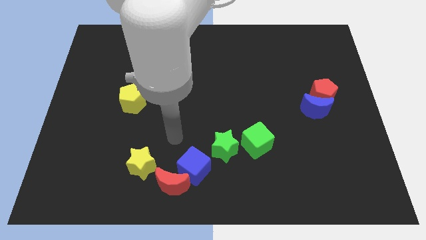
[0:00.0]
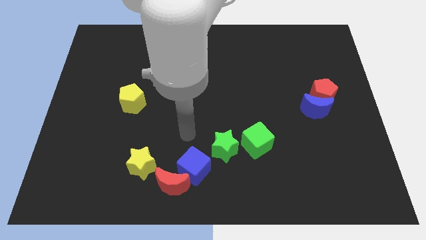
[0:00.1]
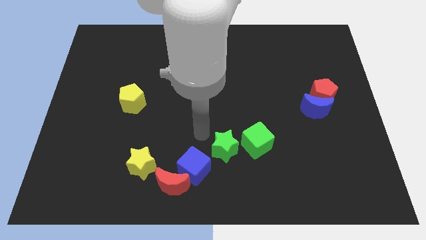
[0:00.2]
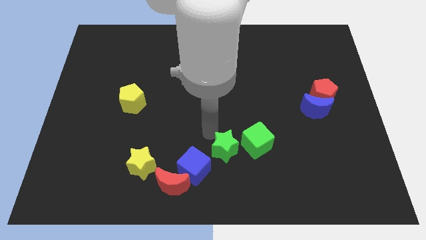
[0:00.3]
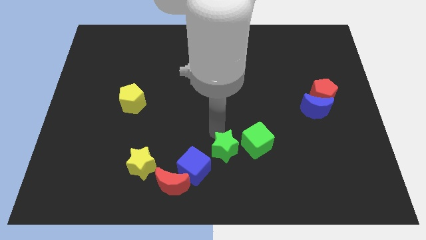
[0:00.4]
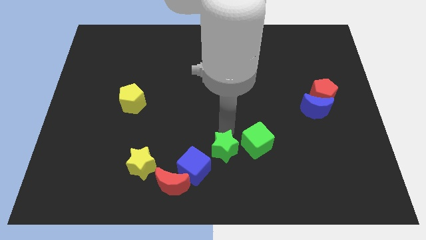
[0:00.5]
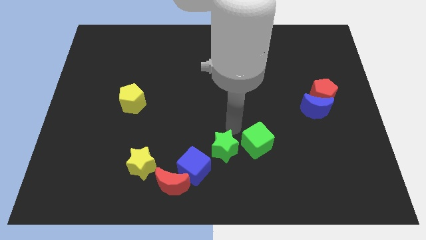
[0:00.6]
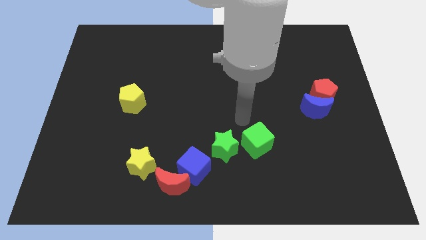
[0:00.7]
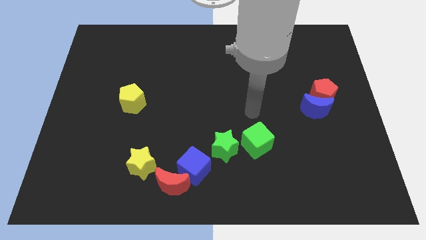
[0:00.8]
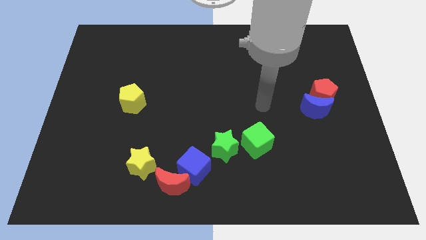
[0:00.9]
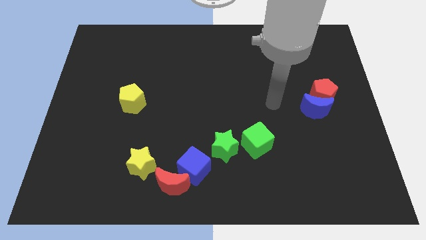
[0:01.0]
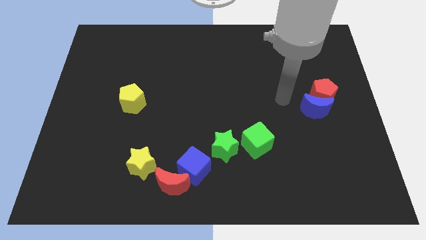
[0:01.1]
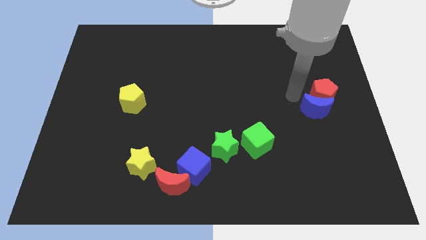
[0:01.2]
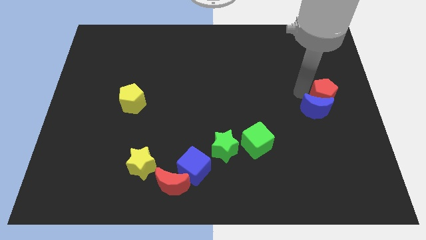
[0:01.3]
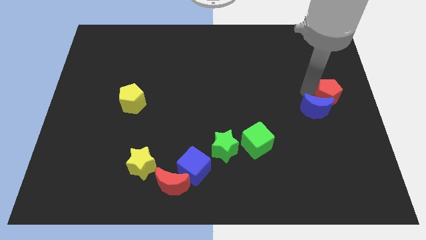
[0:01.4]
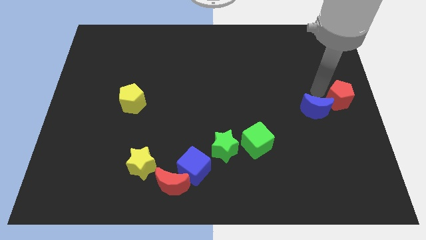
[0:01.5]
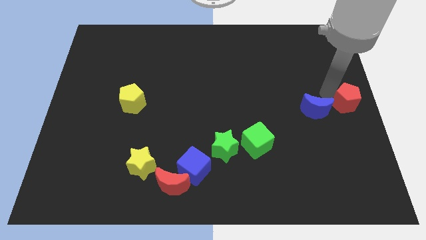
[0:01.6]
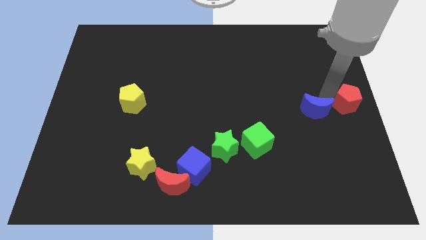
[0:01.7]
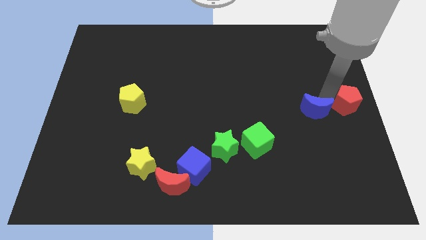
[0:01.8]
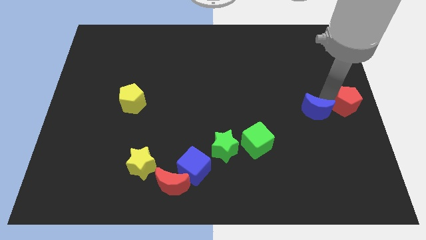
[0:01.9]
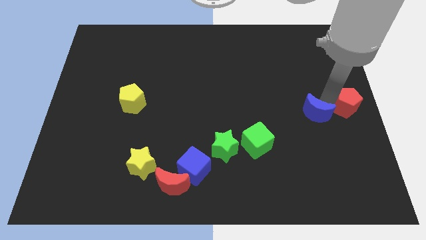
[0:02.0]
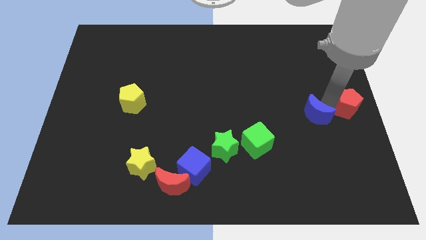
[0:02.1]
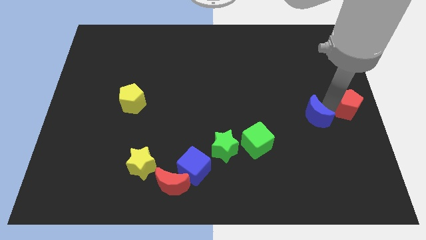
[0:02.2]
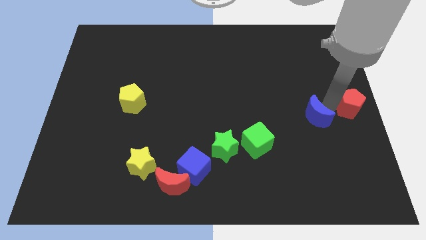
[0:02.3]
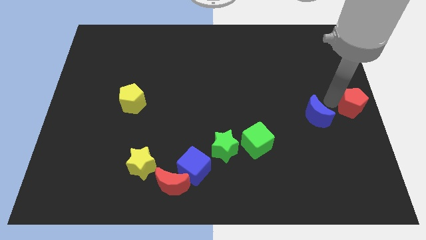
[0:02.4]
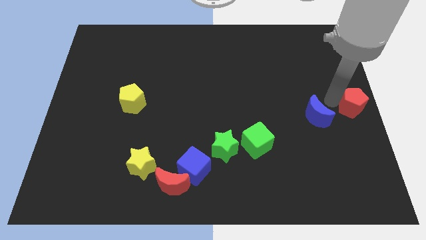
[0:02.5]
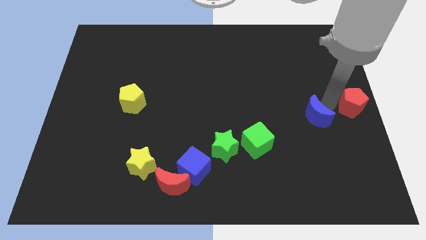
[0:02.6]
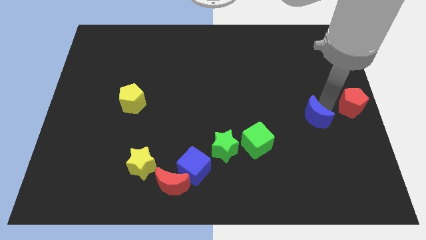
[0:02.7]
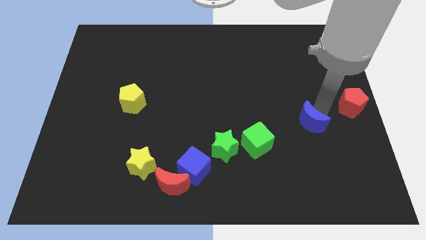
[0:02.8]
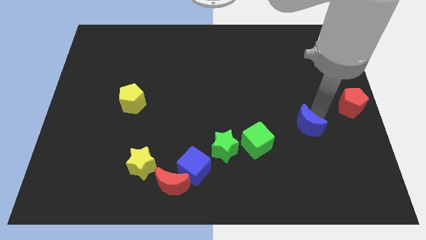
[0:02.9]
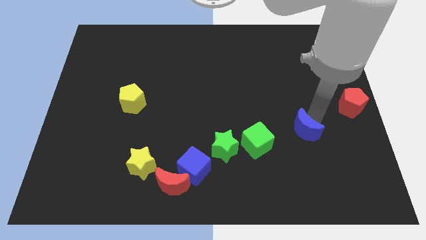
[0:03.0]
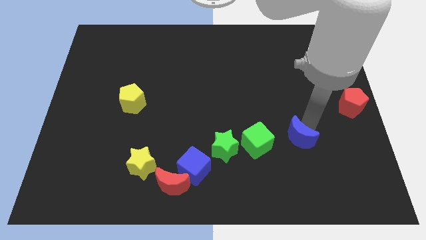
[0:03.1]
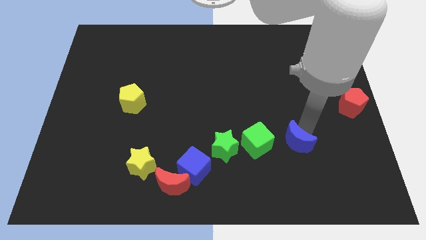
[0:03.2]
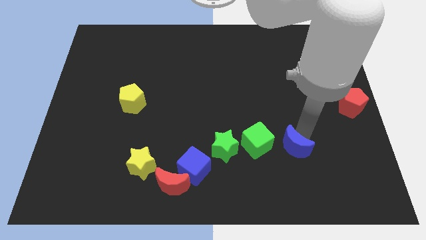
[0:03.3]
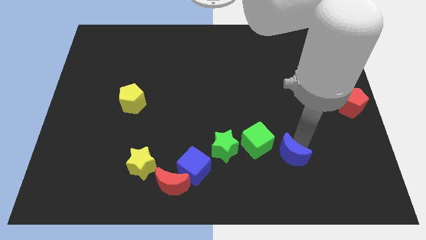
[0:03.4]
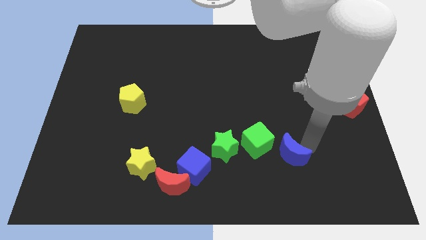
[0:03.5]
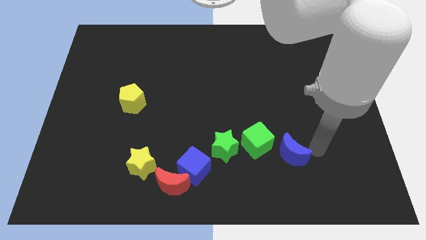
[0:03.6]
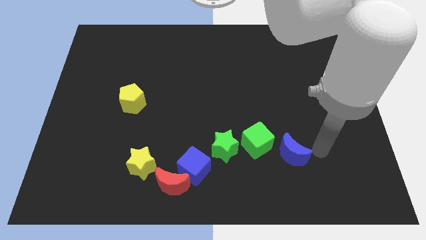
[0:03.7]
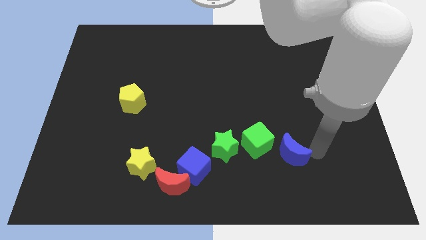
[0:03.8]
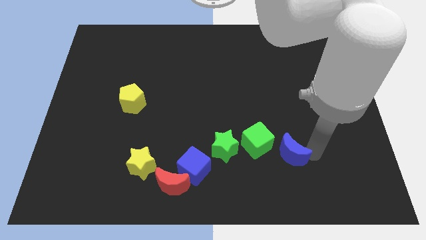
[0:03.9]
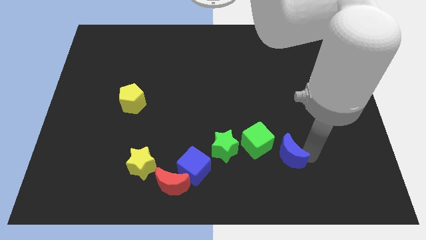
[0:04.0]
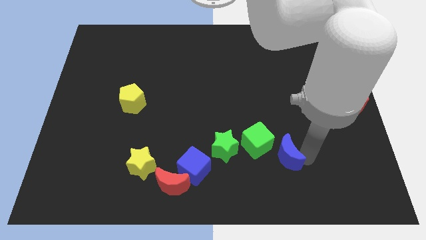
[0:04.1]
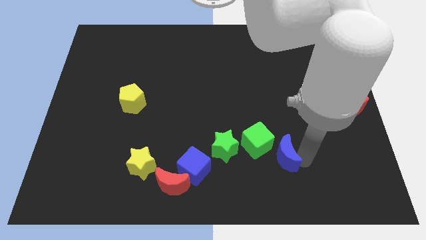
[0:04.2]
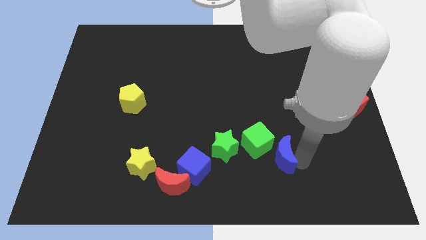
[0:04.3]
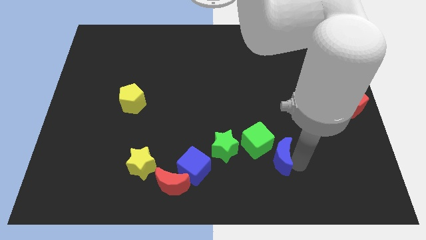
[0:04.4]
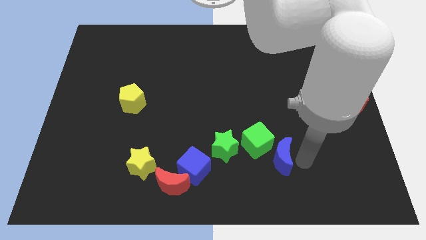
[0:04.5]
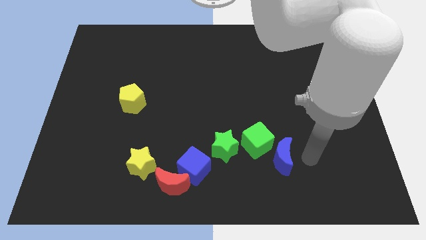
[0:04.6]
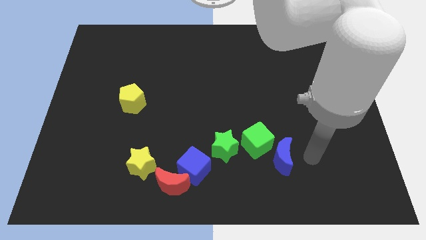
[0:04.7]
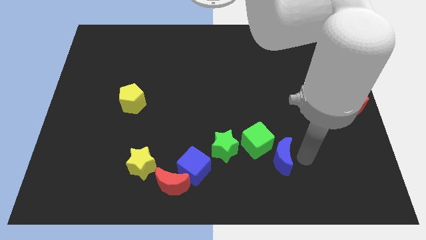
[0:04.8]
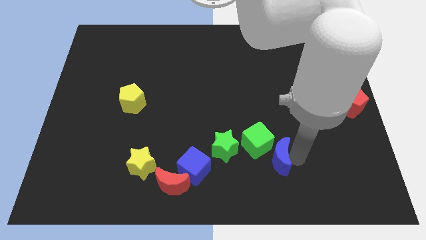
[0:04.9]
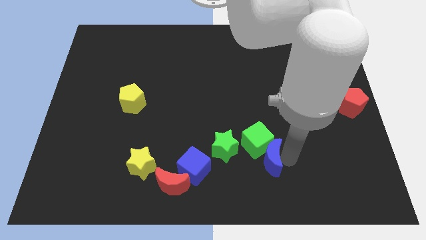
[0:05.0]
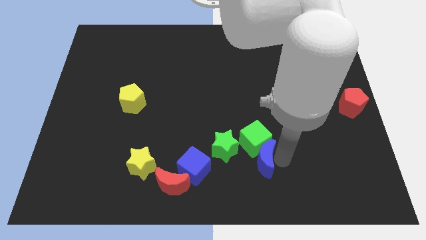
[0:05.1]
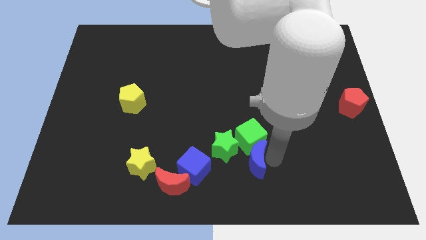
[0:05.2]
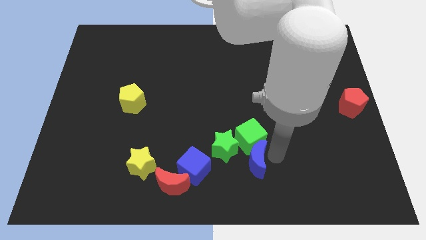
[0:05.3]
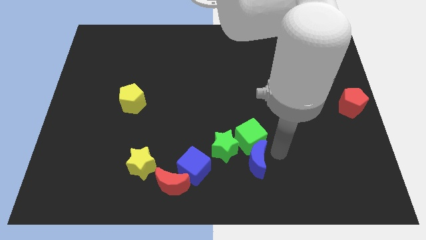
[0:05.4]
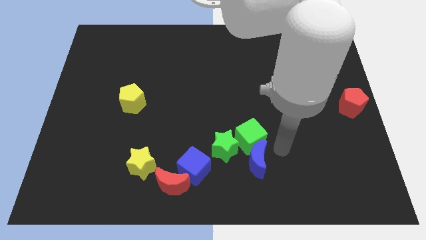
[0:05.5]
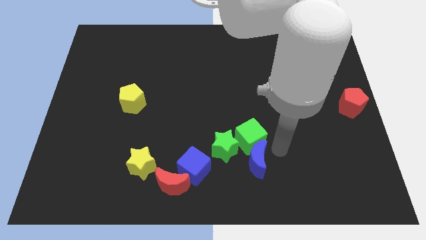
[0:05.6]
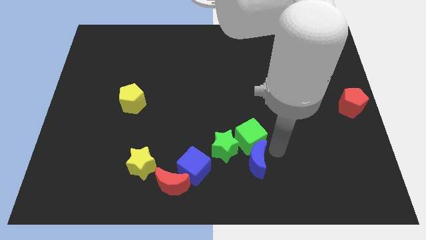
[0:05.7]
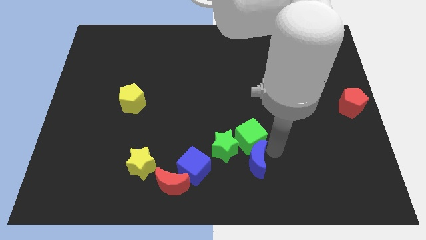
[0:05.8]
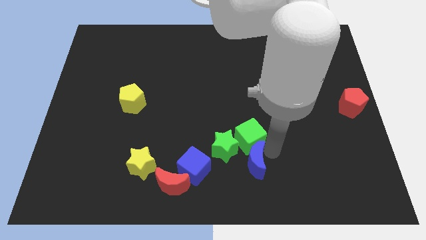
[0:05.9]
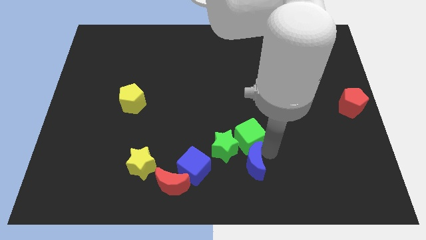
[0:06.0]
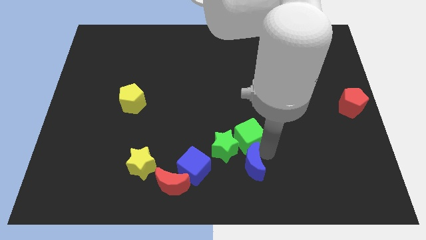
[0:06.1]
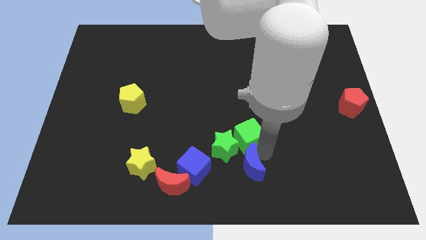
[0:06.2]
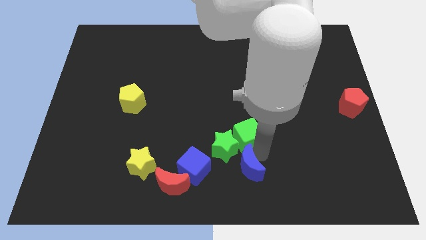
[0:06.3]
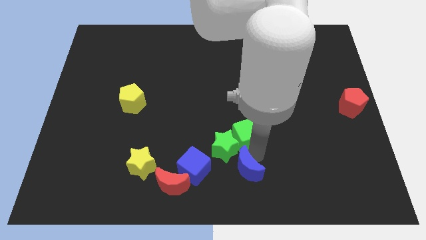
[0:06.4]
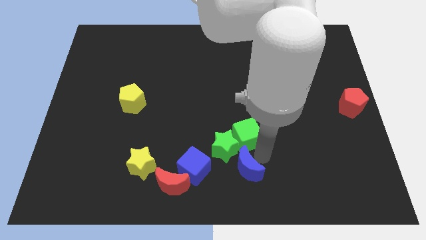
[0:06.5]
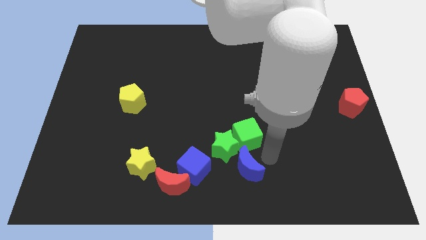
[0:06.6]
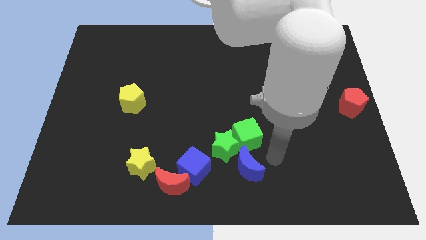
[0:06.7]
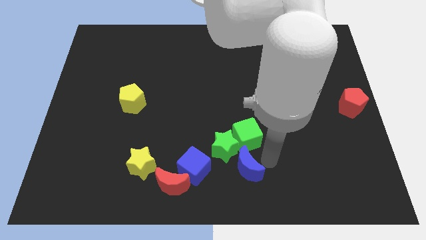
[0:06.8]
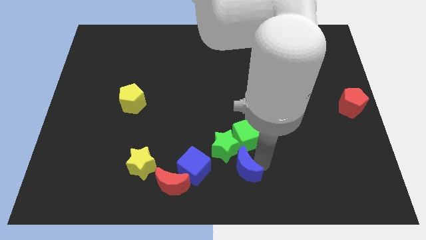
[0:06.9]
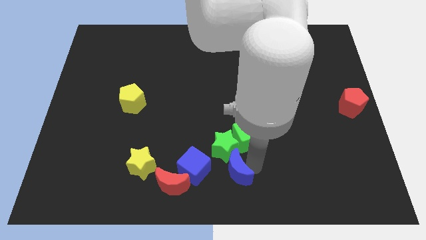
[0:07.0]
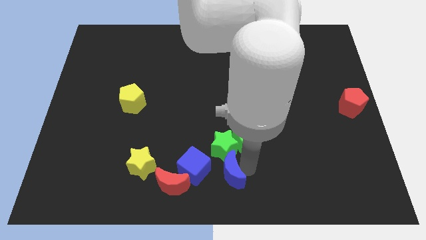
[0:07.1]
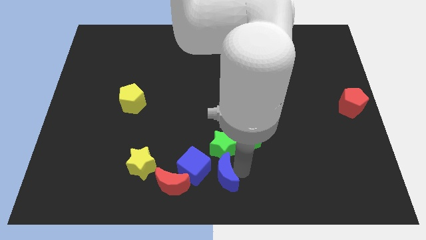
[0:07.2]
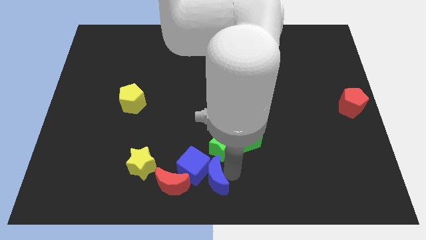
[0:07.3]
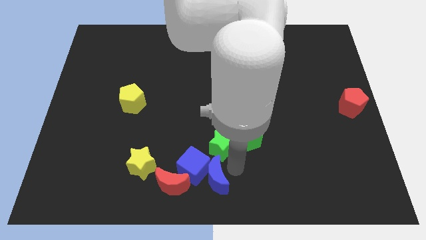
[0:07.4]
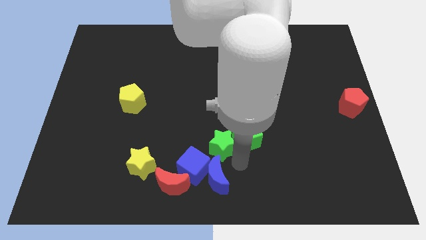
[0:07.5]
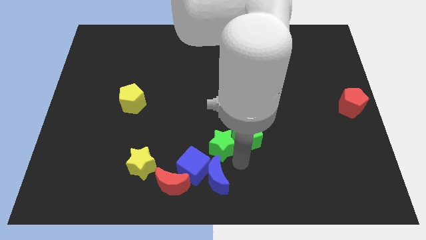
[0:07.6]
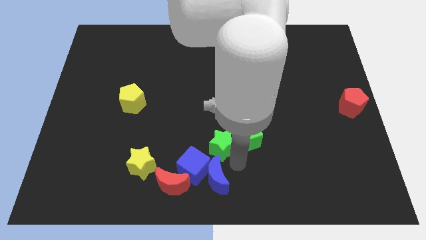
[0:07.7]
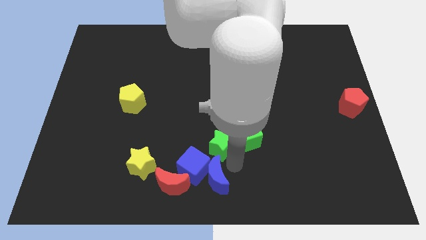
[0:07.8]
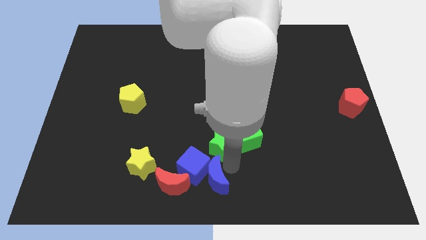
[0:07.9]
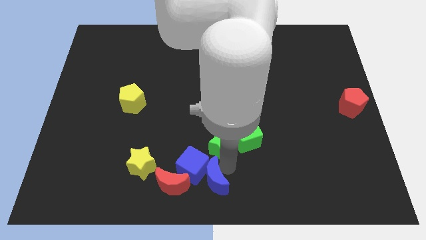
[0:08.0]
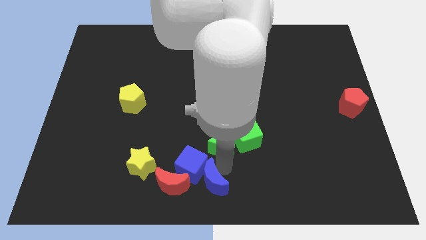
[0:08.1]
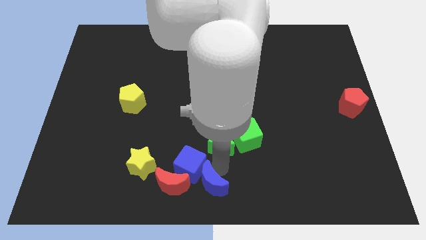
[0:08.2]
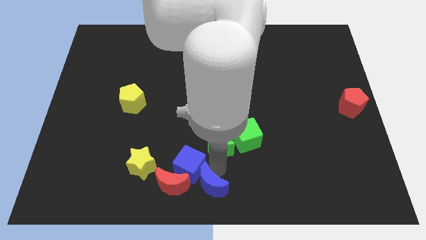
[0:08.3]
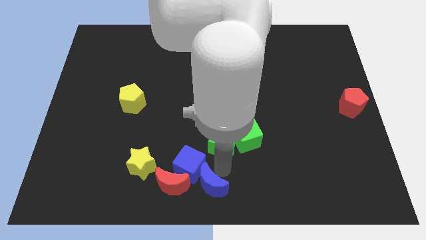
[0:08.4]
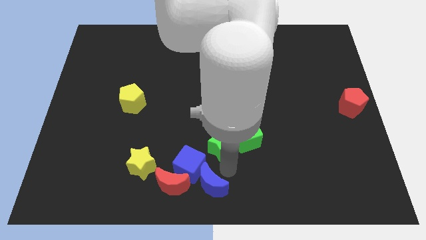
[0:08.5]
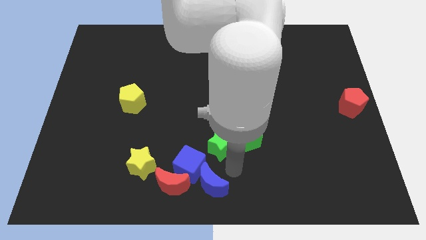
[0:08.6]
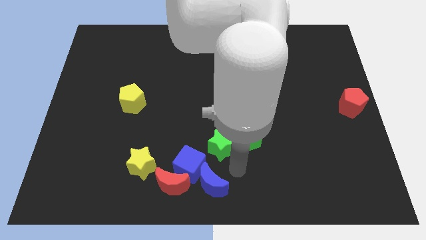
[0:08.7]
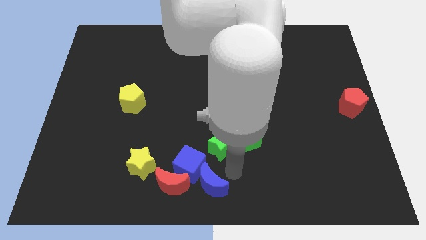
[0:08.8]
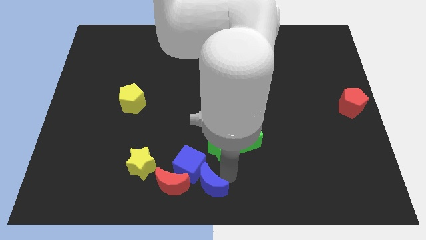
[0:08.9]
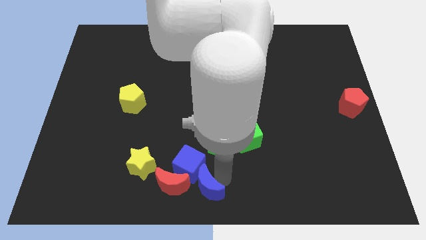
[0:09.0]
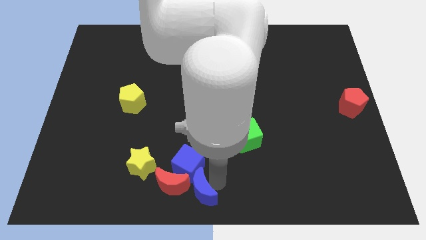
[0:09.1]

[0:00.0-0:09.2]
move the blue moon towards the red moon
